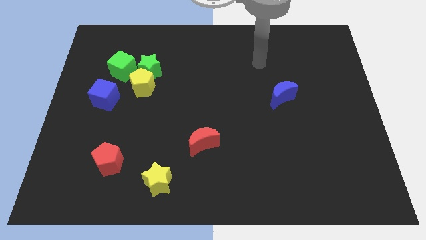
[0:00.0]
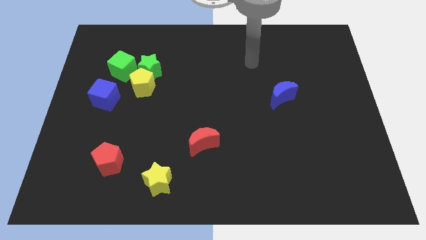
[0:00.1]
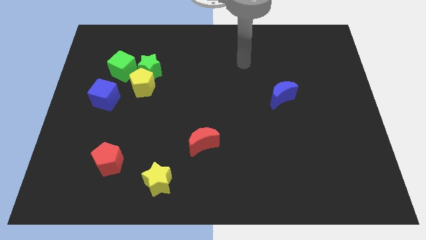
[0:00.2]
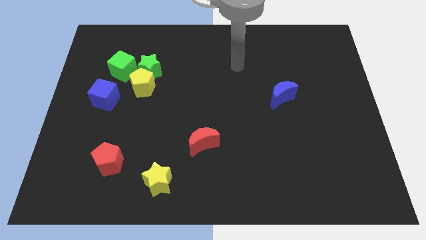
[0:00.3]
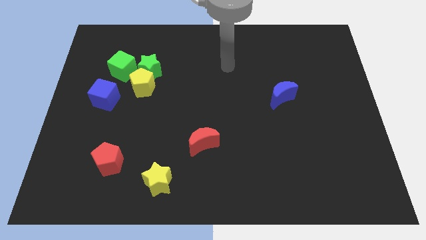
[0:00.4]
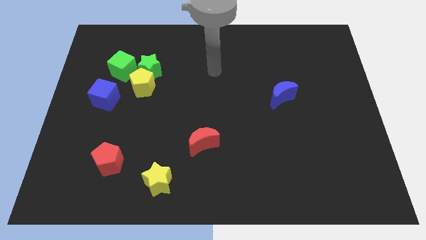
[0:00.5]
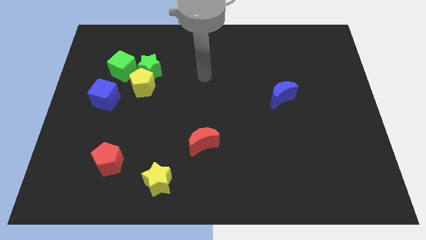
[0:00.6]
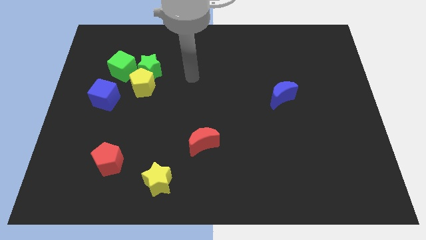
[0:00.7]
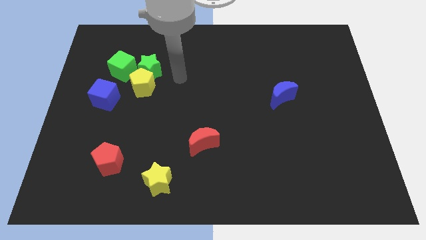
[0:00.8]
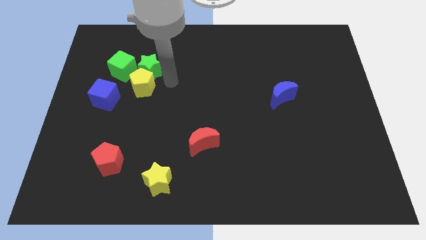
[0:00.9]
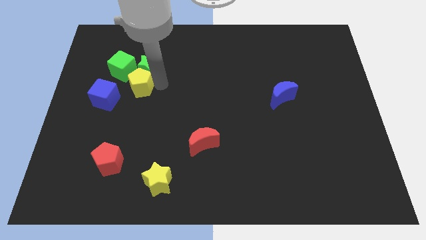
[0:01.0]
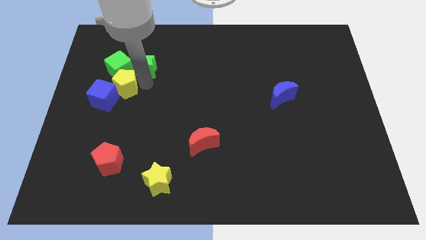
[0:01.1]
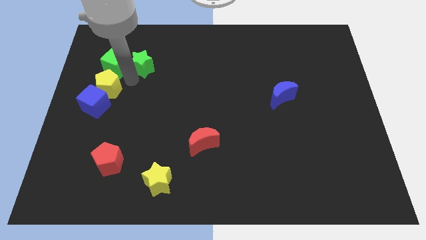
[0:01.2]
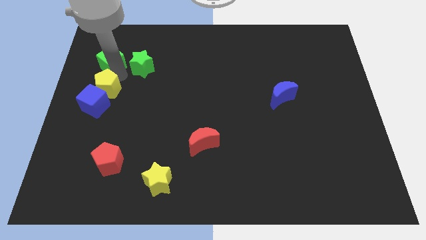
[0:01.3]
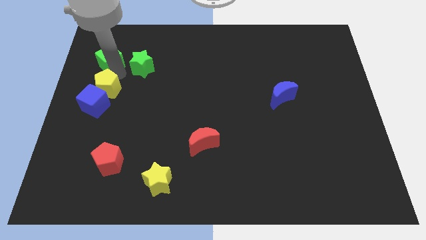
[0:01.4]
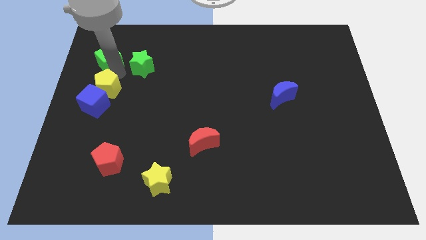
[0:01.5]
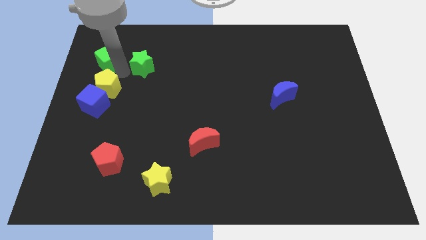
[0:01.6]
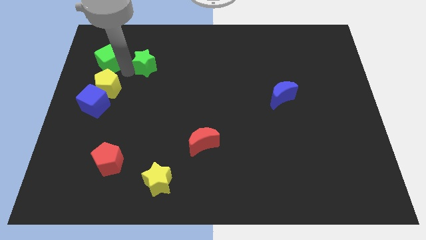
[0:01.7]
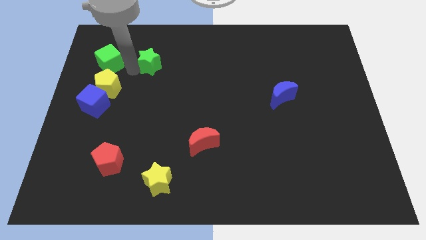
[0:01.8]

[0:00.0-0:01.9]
separate the green star from the yellow pentagon and green cube

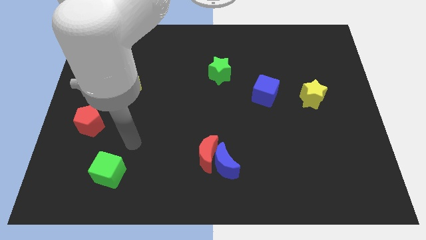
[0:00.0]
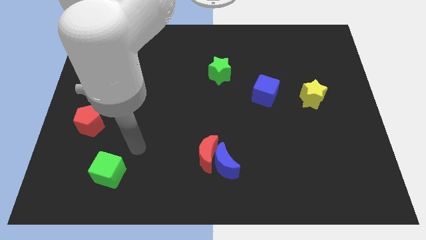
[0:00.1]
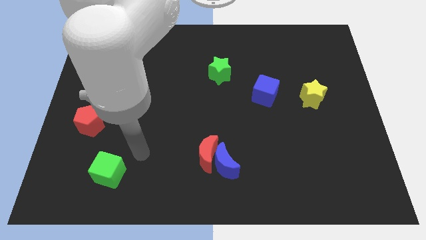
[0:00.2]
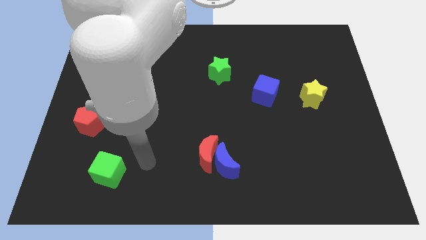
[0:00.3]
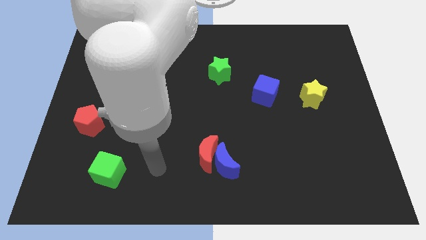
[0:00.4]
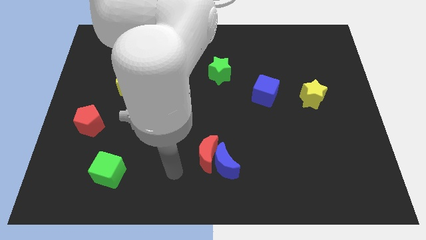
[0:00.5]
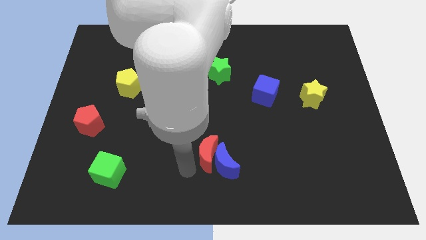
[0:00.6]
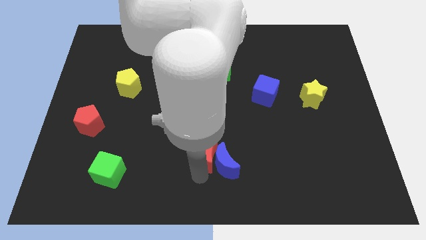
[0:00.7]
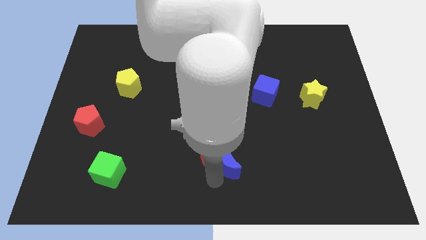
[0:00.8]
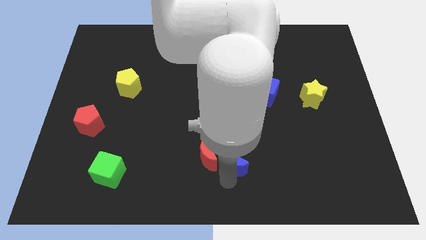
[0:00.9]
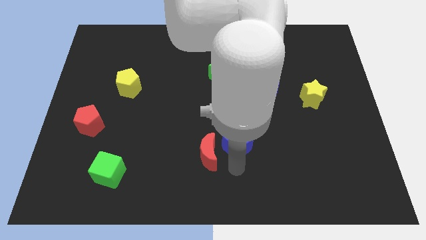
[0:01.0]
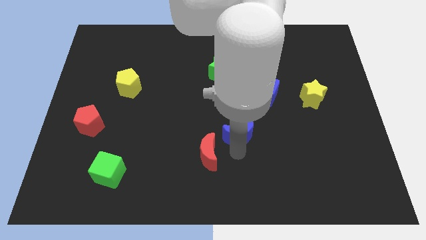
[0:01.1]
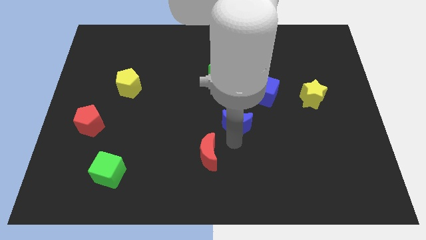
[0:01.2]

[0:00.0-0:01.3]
pull the red moon apart from the blue moon

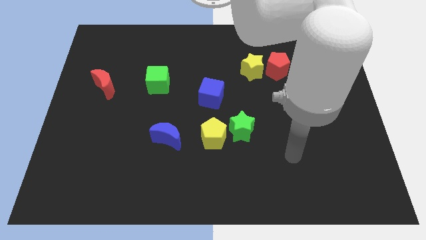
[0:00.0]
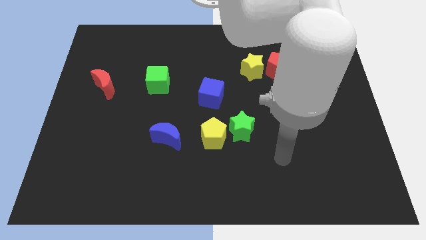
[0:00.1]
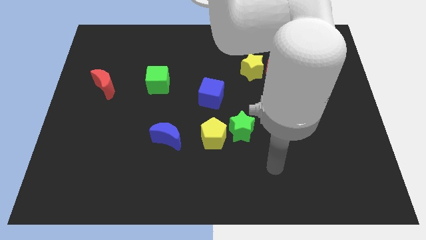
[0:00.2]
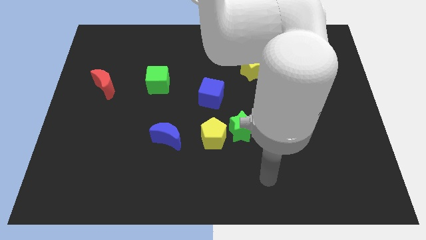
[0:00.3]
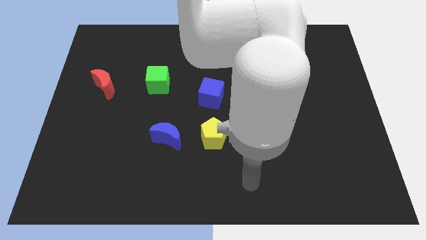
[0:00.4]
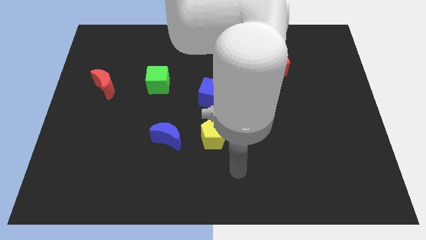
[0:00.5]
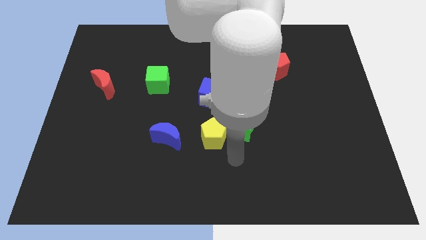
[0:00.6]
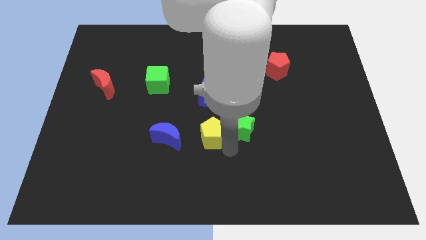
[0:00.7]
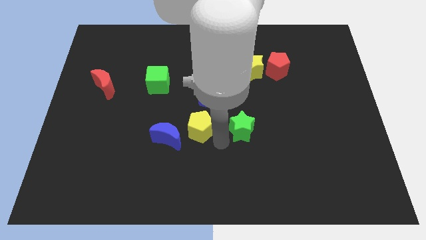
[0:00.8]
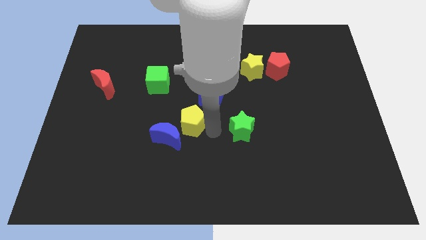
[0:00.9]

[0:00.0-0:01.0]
move the green star away from the yellow pentagon

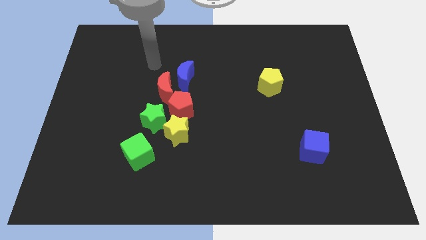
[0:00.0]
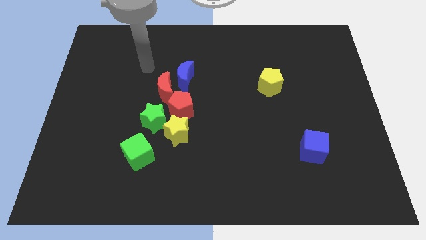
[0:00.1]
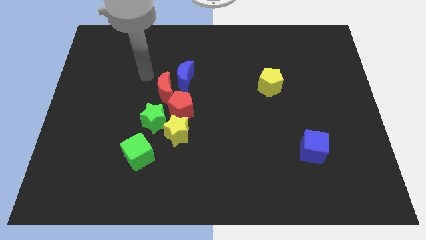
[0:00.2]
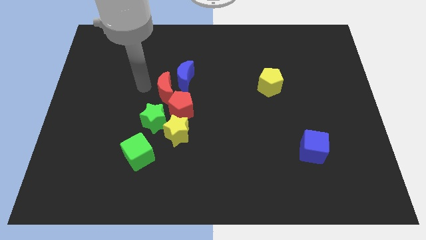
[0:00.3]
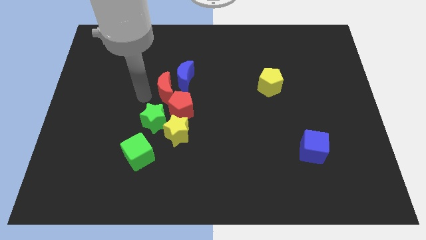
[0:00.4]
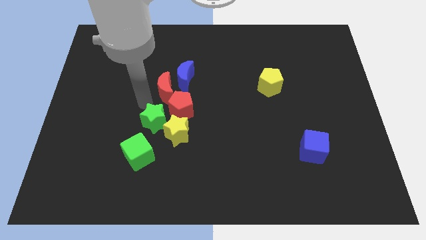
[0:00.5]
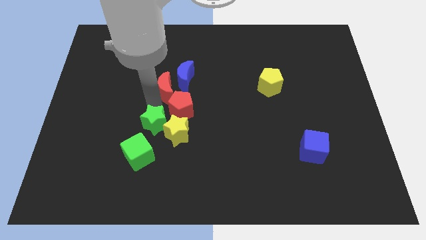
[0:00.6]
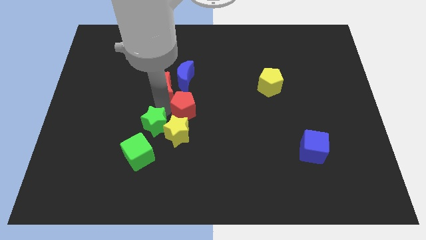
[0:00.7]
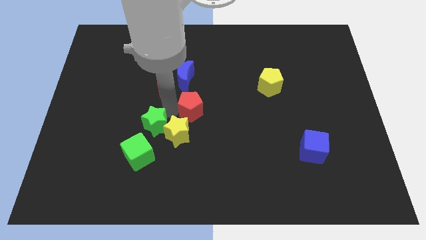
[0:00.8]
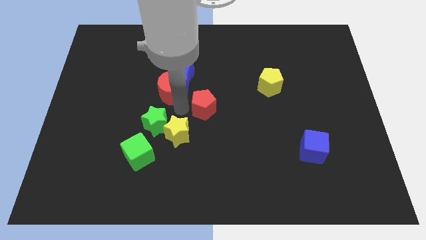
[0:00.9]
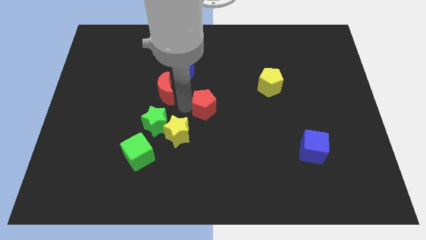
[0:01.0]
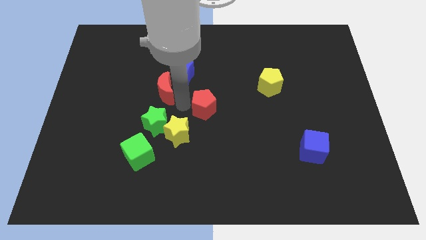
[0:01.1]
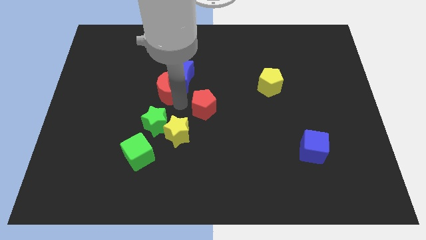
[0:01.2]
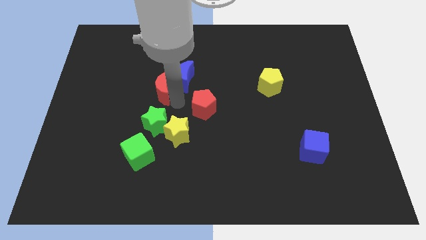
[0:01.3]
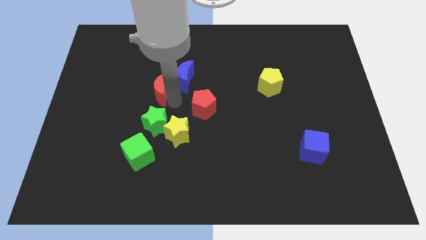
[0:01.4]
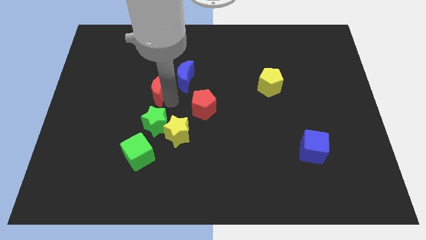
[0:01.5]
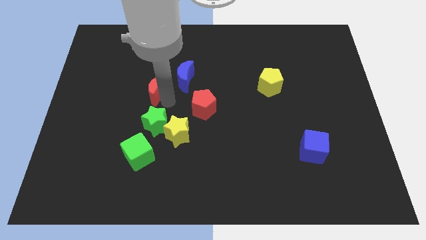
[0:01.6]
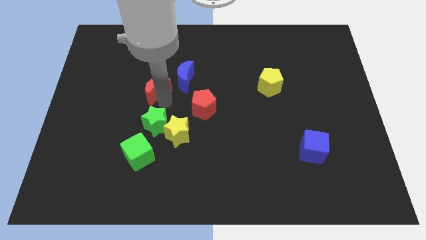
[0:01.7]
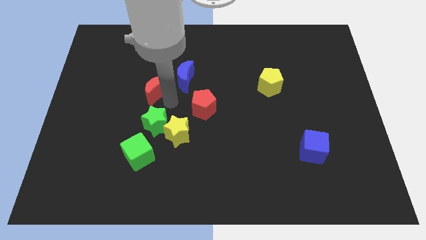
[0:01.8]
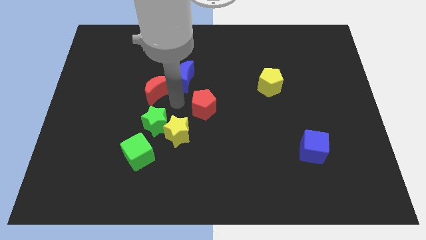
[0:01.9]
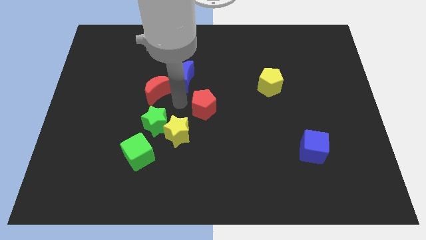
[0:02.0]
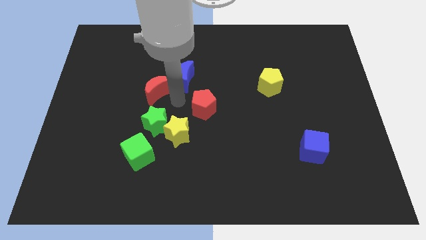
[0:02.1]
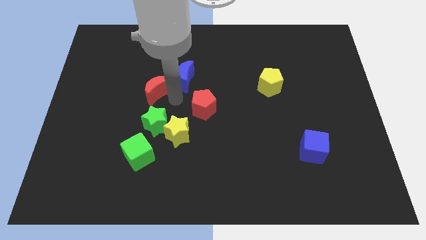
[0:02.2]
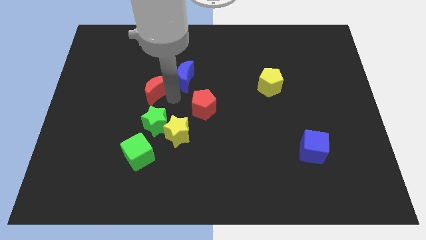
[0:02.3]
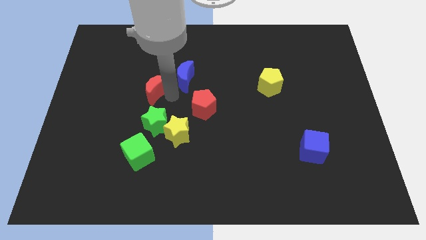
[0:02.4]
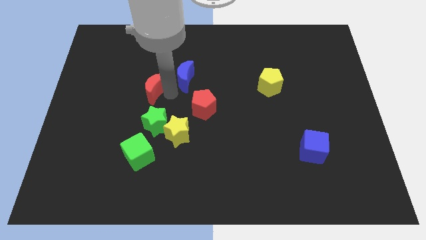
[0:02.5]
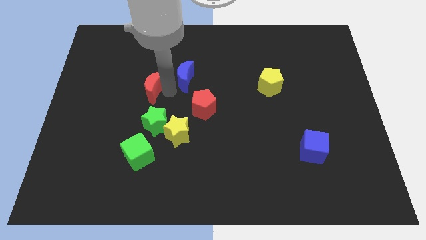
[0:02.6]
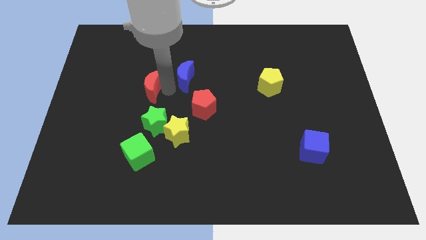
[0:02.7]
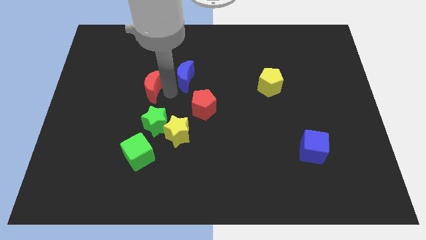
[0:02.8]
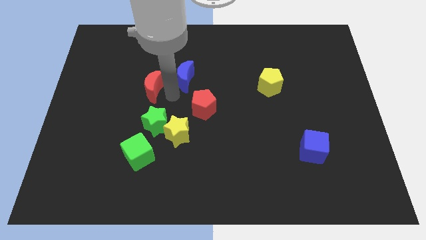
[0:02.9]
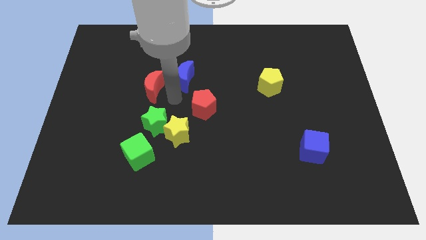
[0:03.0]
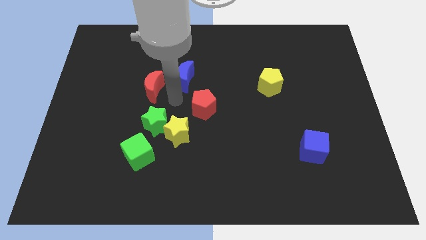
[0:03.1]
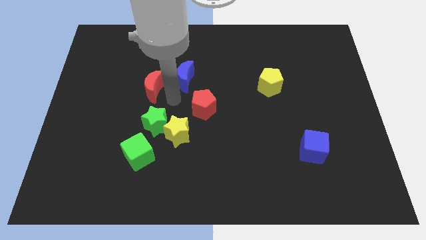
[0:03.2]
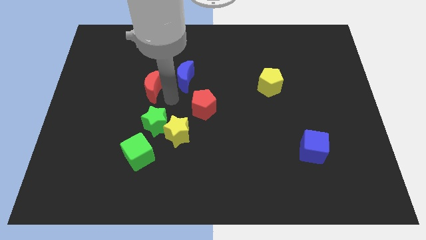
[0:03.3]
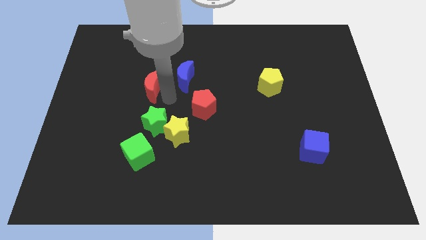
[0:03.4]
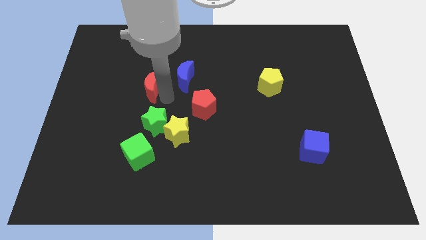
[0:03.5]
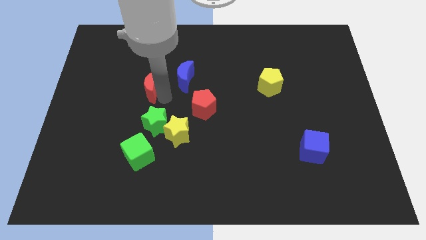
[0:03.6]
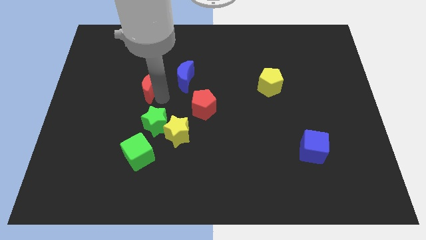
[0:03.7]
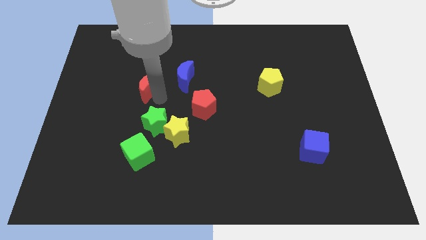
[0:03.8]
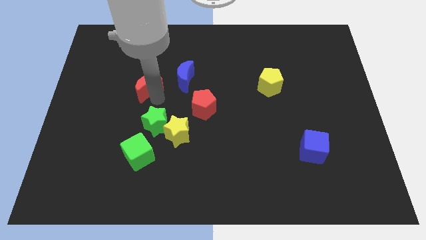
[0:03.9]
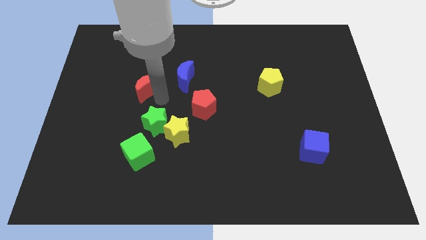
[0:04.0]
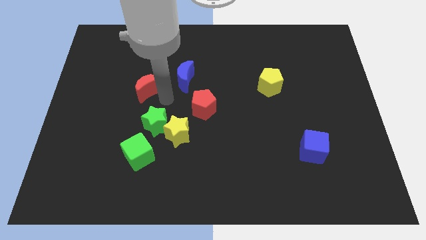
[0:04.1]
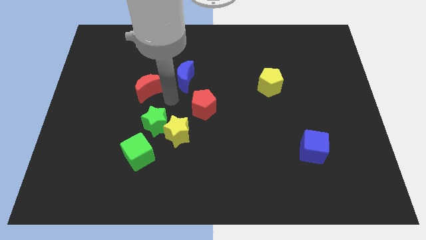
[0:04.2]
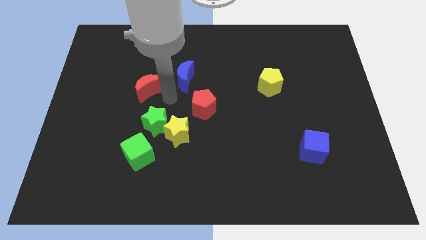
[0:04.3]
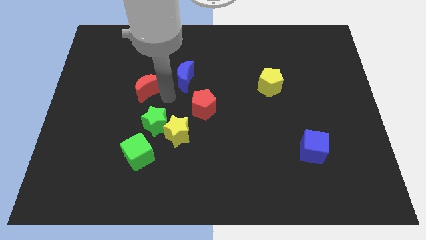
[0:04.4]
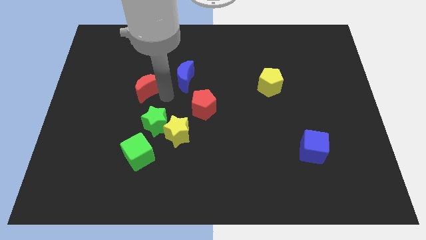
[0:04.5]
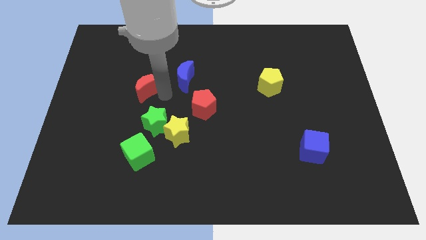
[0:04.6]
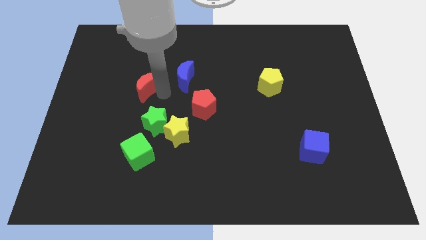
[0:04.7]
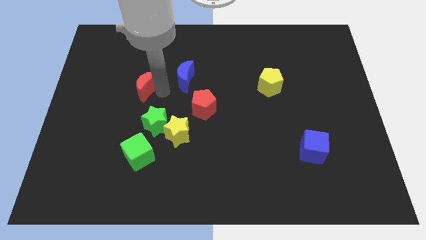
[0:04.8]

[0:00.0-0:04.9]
separate the red moon from the group

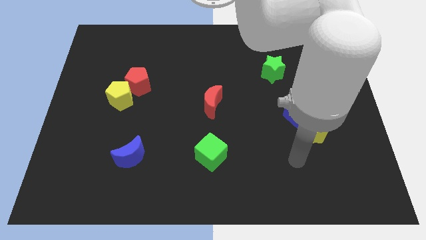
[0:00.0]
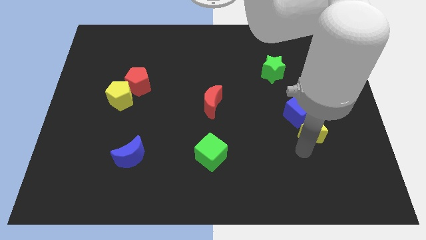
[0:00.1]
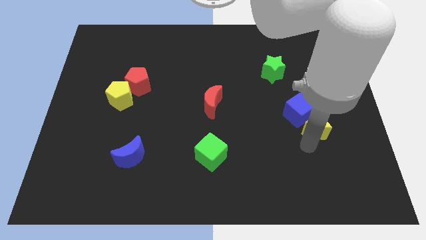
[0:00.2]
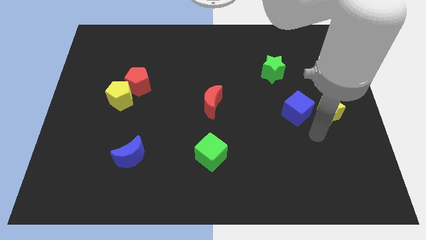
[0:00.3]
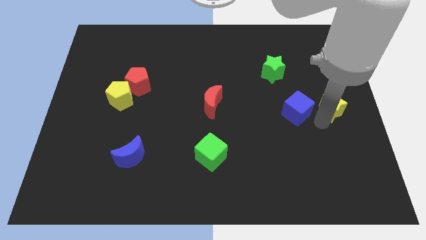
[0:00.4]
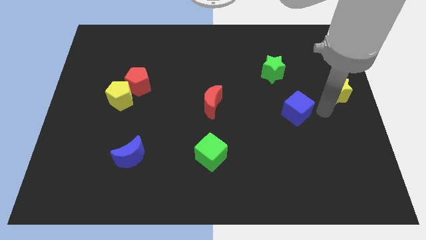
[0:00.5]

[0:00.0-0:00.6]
separate the blue cube from the yellow star
